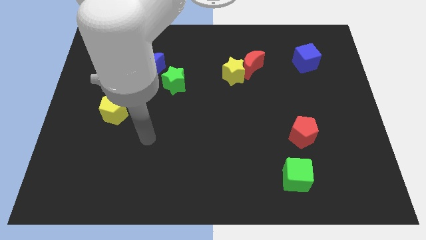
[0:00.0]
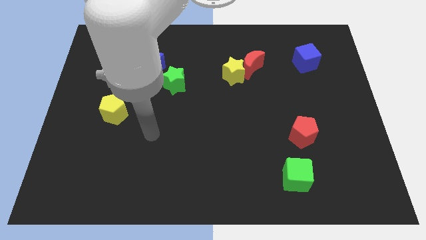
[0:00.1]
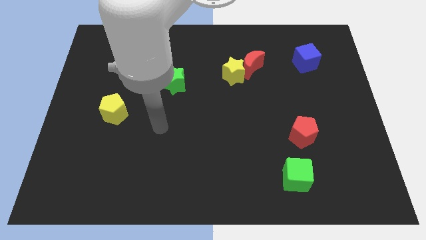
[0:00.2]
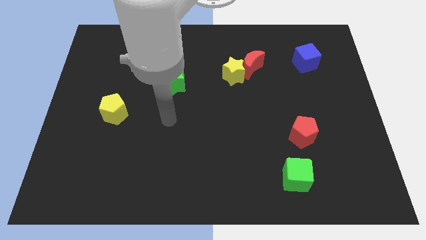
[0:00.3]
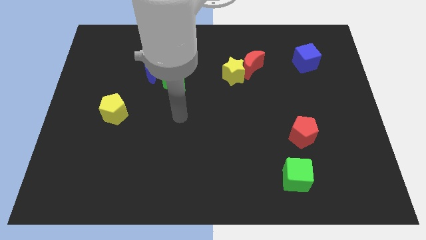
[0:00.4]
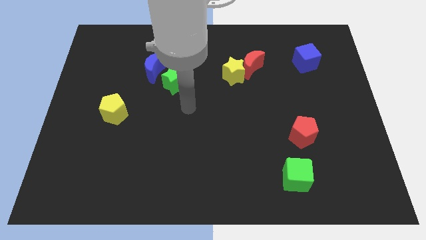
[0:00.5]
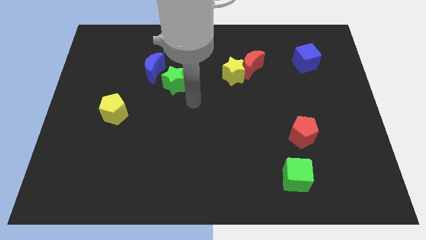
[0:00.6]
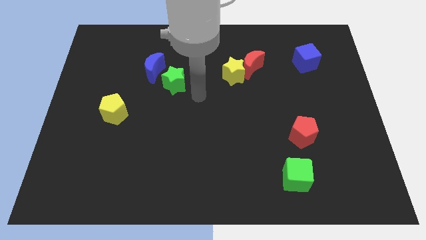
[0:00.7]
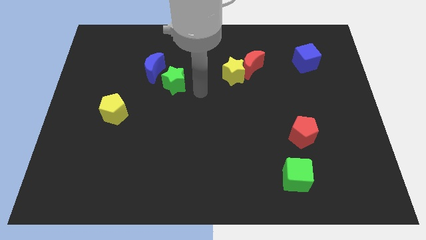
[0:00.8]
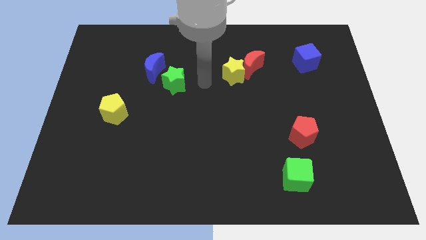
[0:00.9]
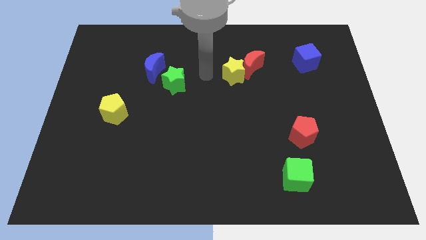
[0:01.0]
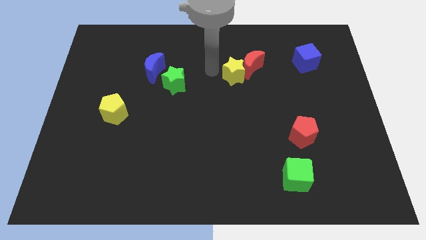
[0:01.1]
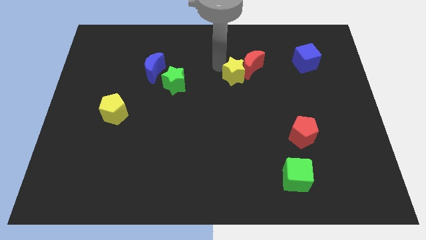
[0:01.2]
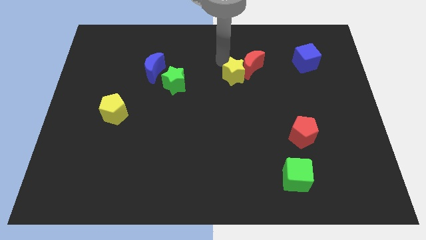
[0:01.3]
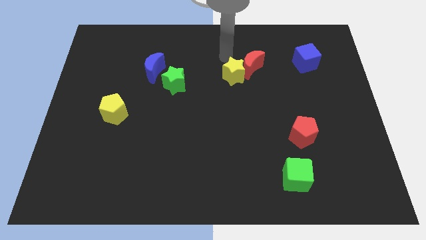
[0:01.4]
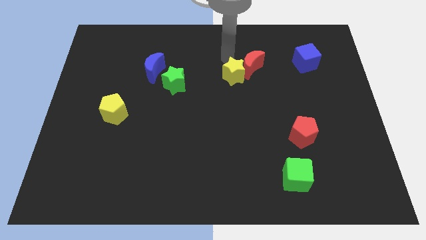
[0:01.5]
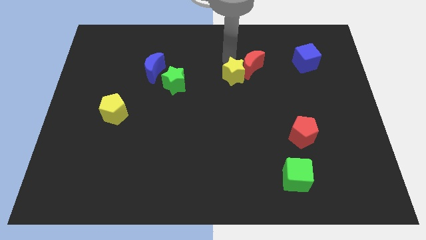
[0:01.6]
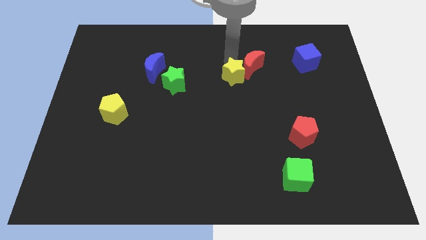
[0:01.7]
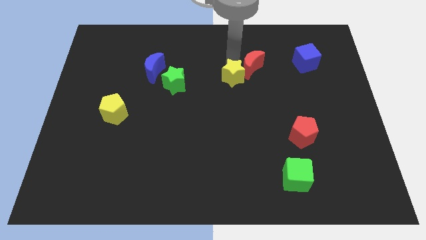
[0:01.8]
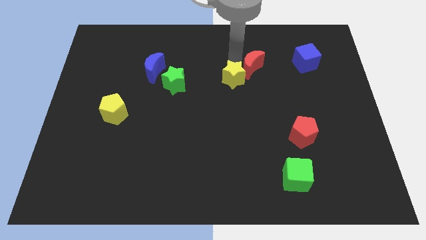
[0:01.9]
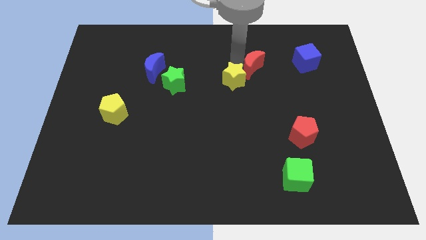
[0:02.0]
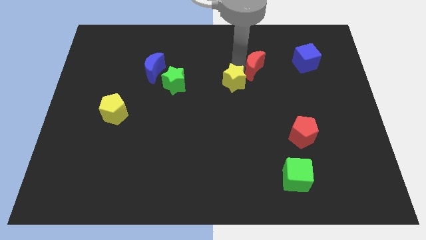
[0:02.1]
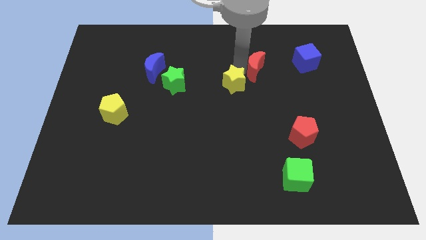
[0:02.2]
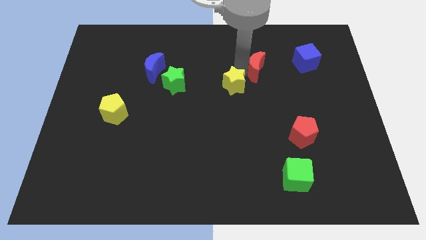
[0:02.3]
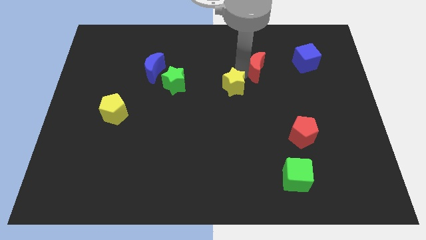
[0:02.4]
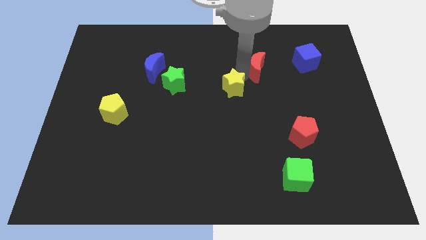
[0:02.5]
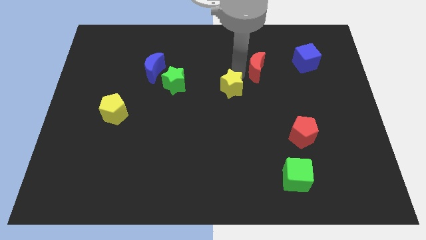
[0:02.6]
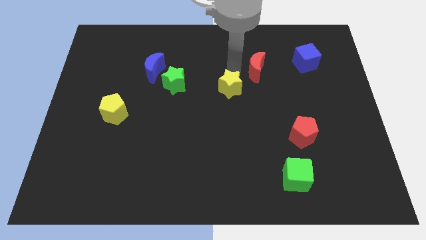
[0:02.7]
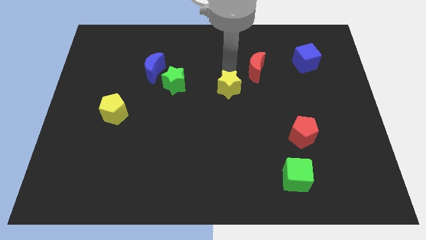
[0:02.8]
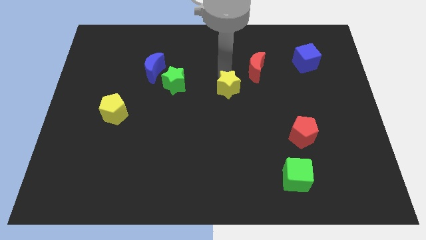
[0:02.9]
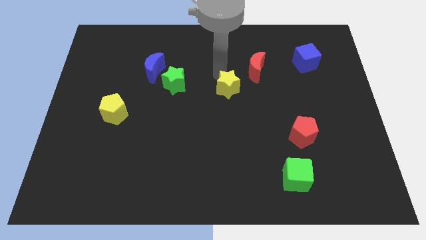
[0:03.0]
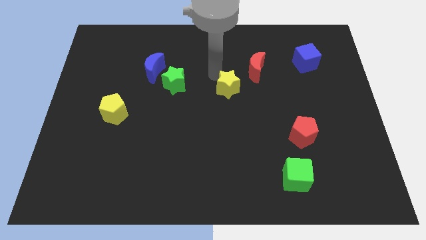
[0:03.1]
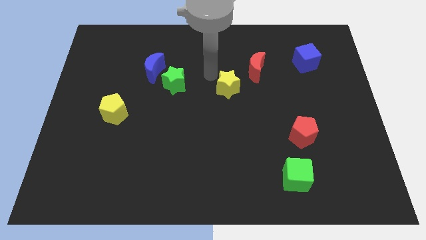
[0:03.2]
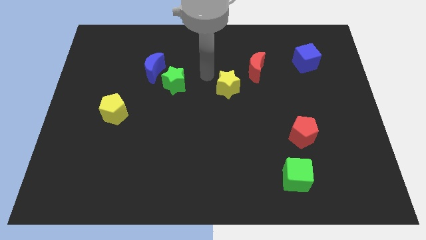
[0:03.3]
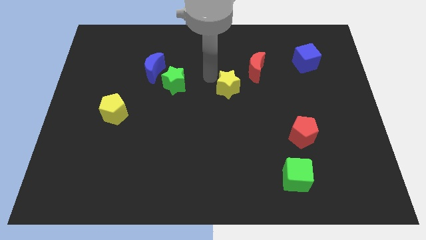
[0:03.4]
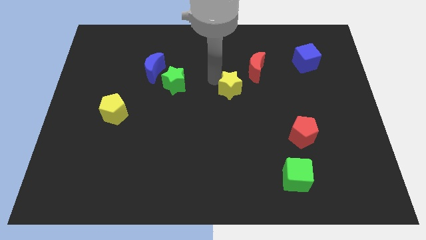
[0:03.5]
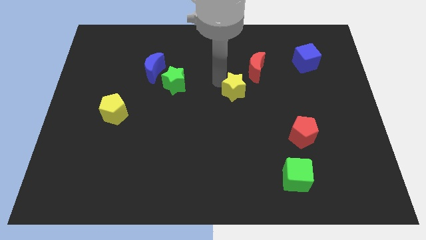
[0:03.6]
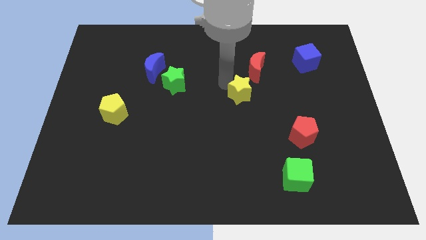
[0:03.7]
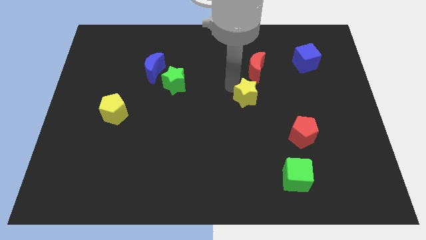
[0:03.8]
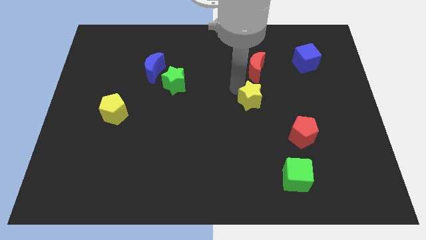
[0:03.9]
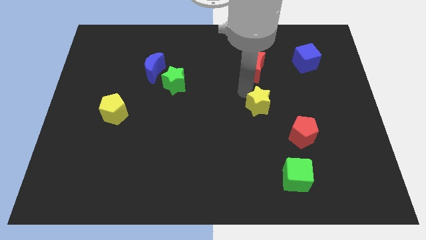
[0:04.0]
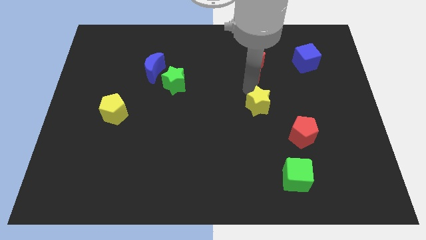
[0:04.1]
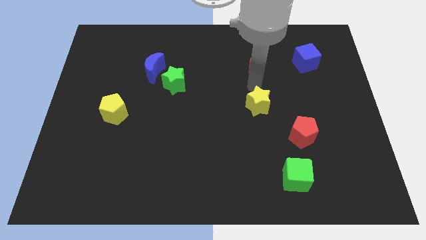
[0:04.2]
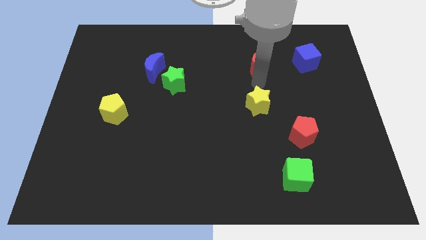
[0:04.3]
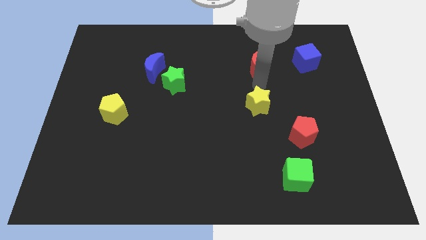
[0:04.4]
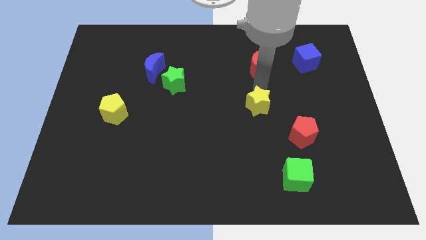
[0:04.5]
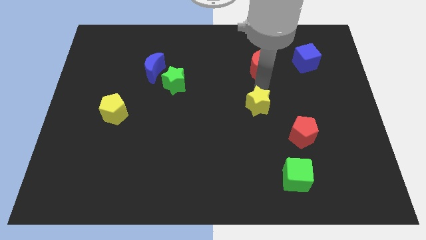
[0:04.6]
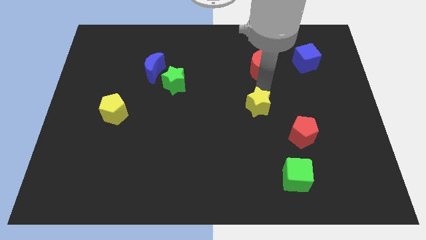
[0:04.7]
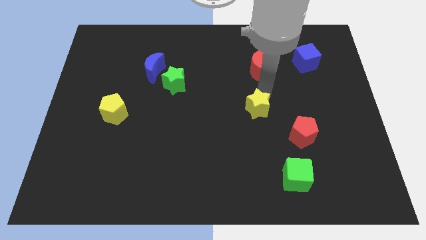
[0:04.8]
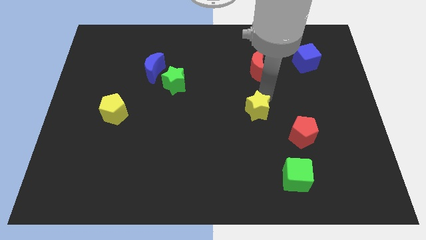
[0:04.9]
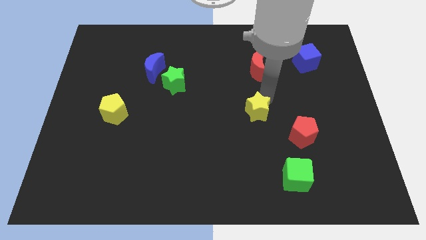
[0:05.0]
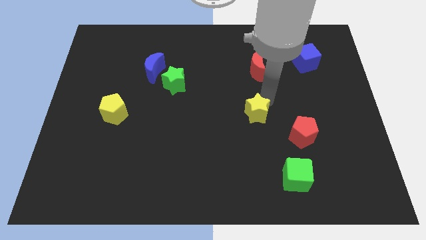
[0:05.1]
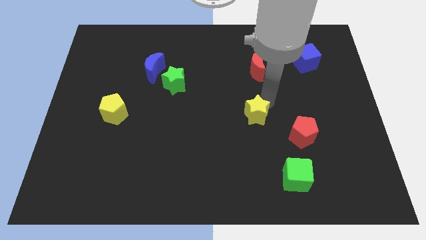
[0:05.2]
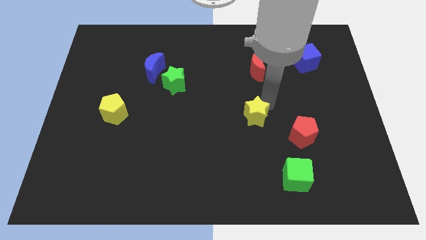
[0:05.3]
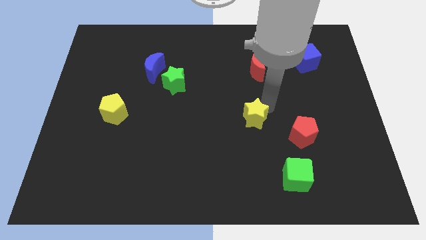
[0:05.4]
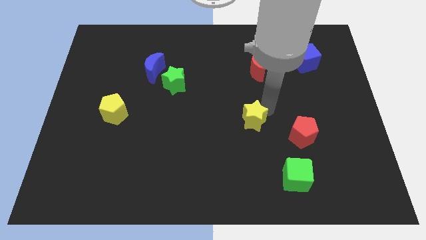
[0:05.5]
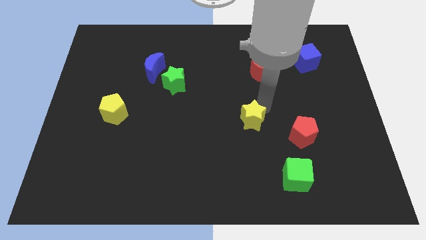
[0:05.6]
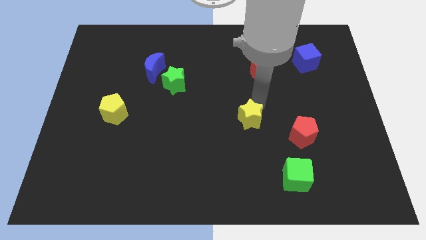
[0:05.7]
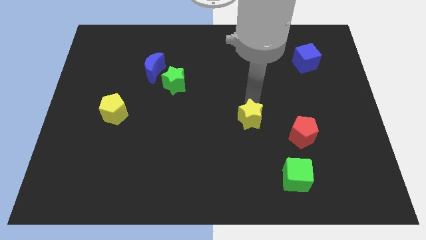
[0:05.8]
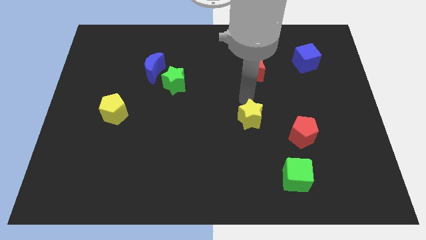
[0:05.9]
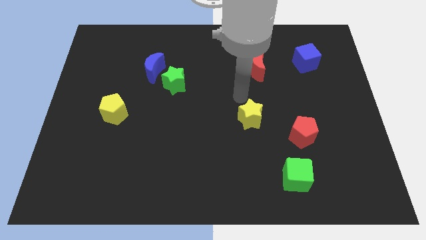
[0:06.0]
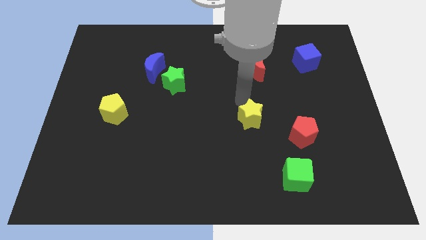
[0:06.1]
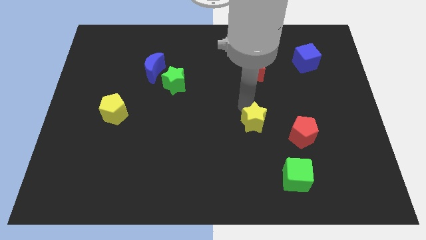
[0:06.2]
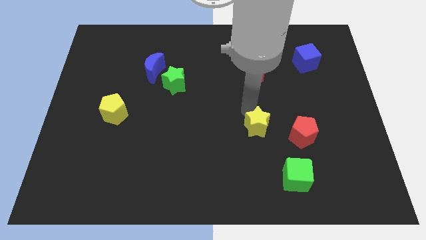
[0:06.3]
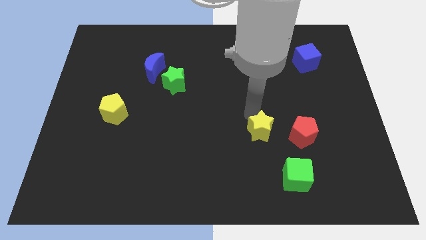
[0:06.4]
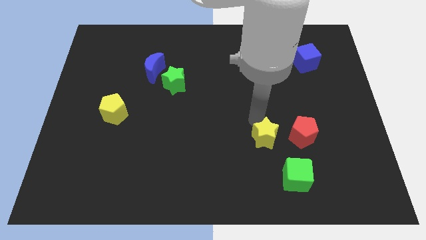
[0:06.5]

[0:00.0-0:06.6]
slide the yellow star to the top left side of the green cube
